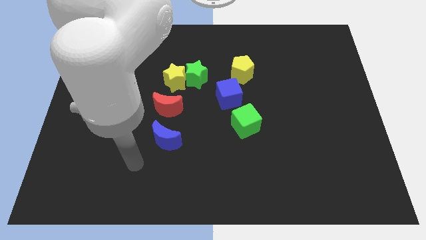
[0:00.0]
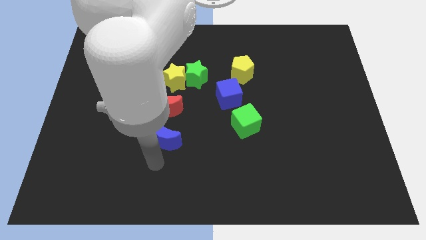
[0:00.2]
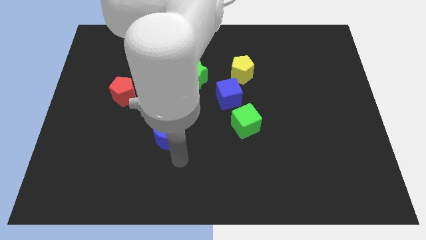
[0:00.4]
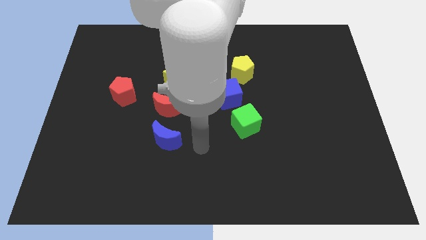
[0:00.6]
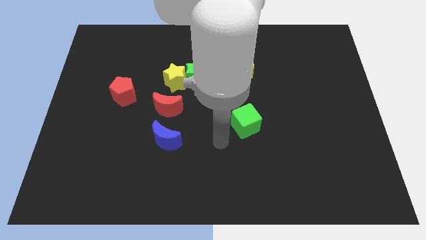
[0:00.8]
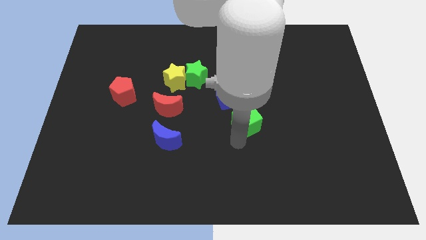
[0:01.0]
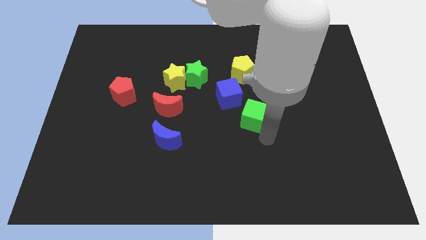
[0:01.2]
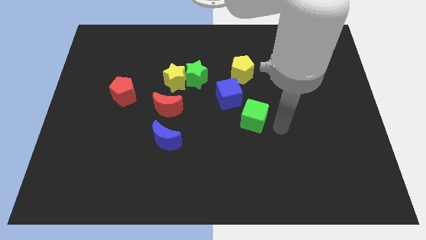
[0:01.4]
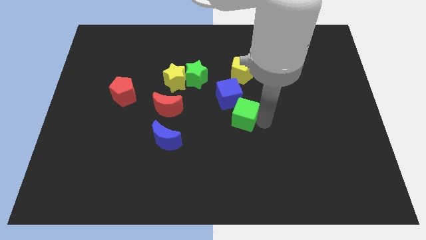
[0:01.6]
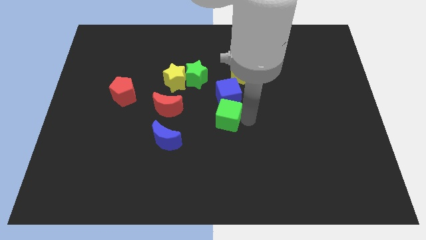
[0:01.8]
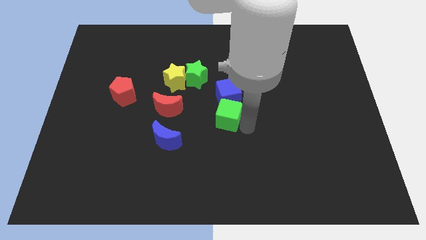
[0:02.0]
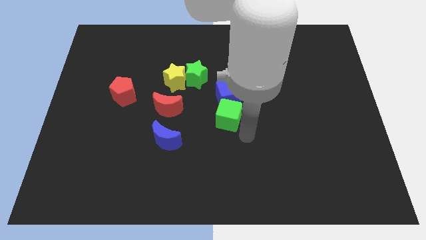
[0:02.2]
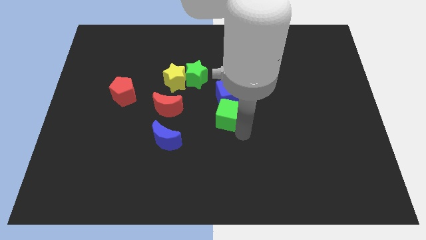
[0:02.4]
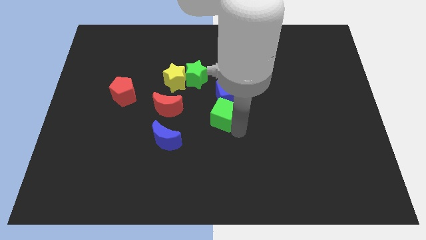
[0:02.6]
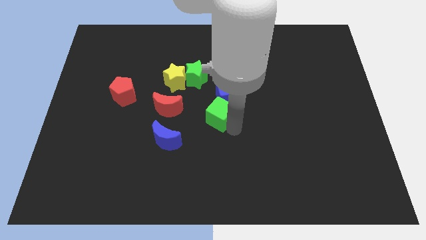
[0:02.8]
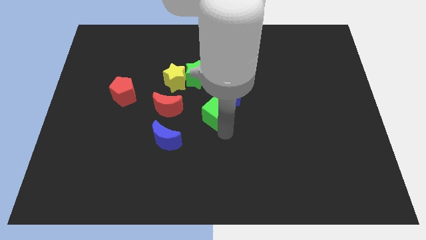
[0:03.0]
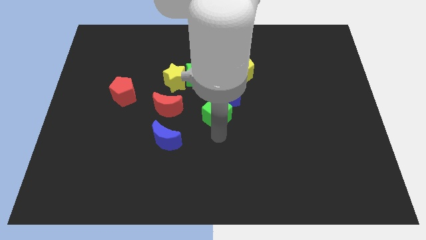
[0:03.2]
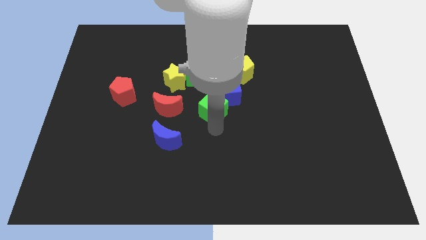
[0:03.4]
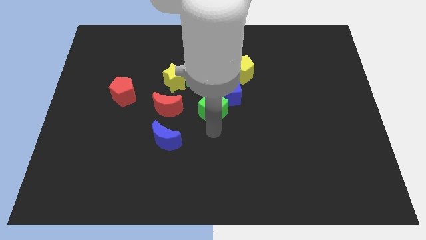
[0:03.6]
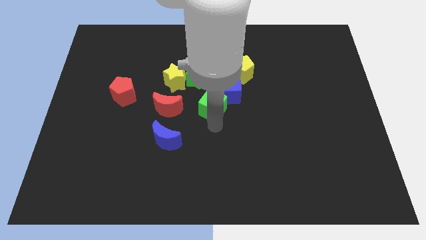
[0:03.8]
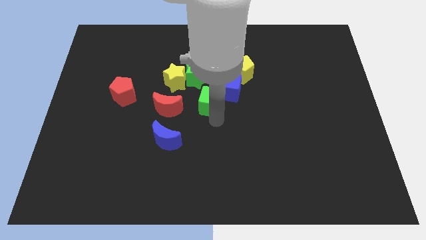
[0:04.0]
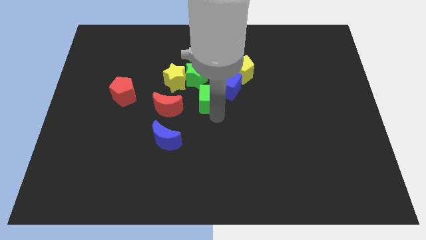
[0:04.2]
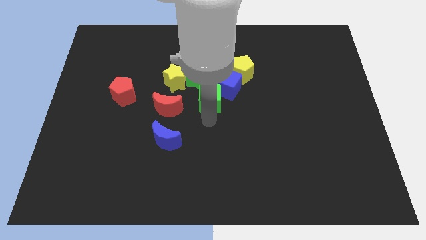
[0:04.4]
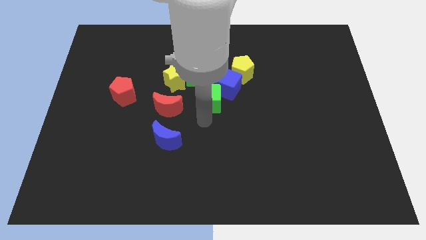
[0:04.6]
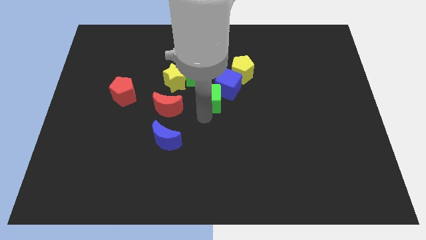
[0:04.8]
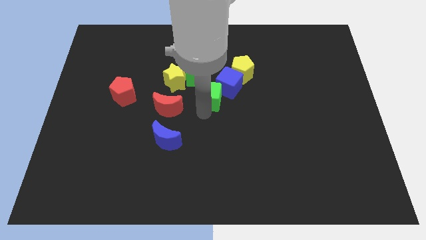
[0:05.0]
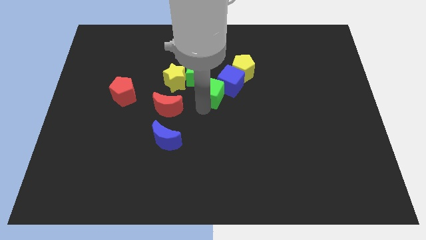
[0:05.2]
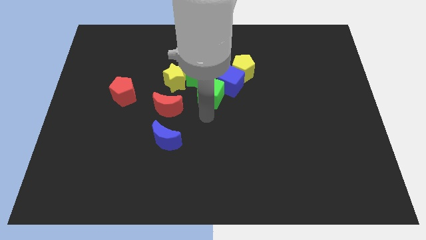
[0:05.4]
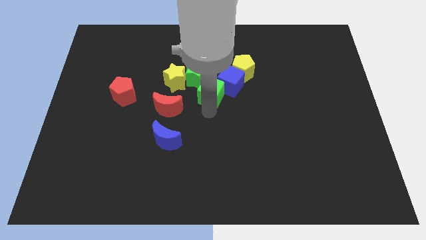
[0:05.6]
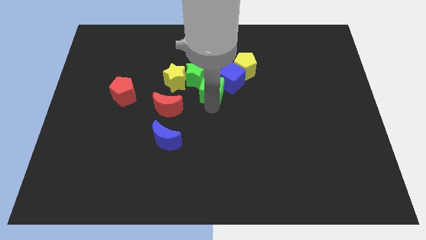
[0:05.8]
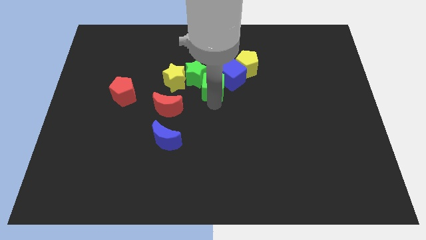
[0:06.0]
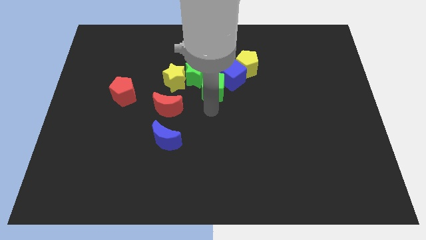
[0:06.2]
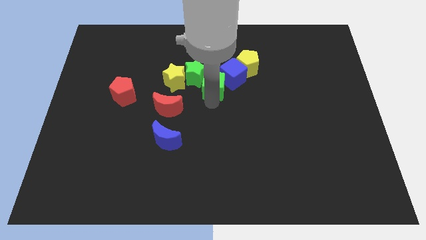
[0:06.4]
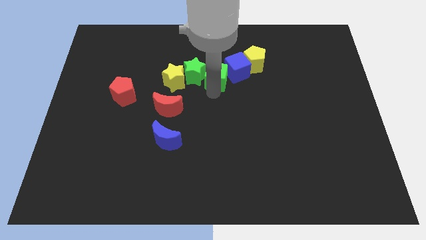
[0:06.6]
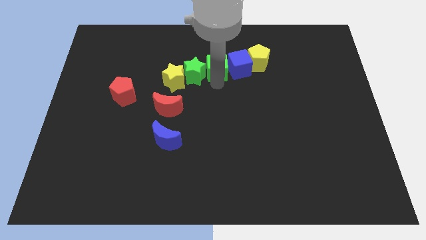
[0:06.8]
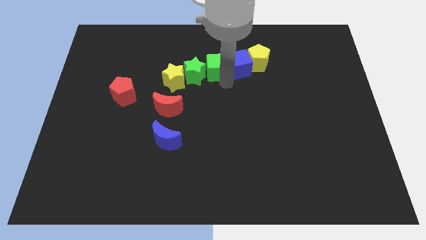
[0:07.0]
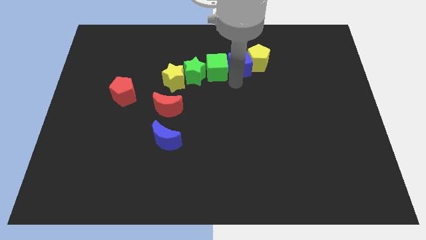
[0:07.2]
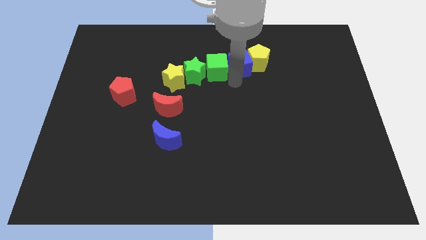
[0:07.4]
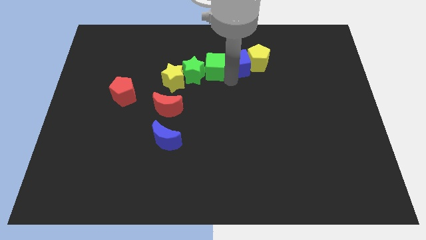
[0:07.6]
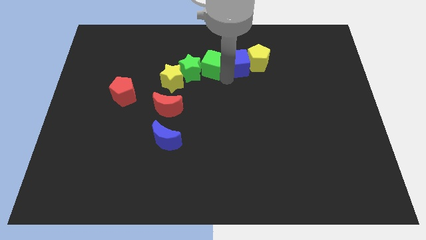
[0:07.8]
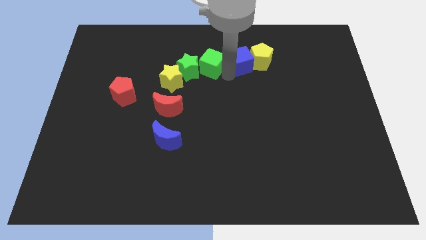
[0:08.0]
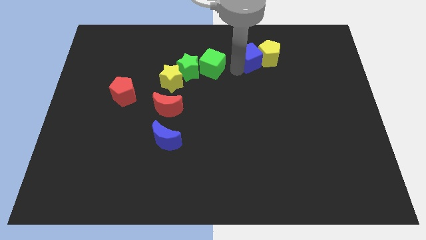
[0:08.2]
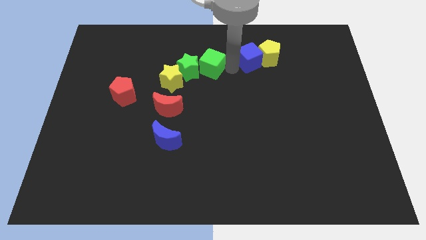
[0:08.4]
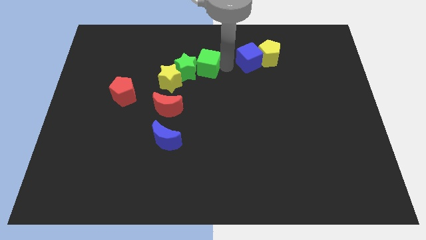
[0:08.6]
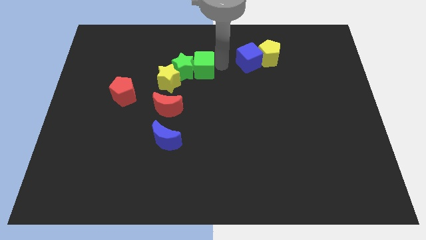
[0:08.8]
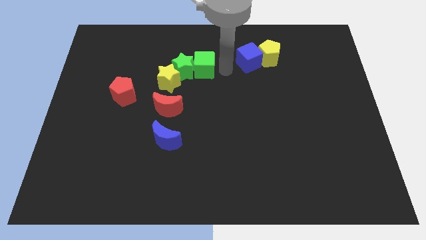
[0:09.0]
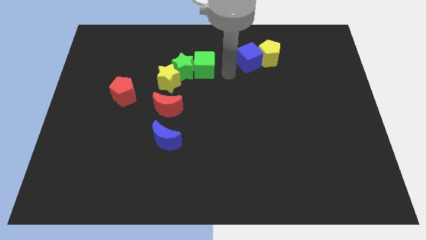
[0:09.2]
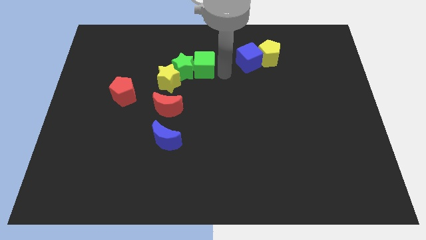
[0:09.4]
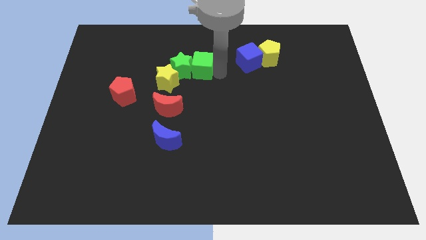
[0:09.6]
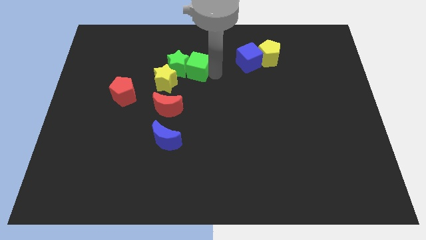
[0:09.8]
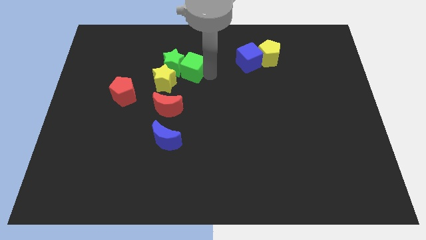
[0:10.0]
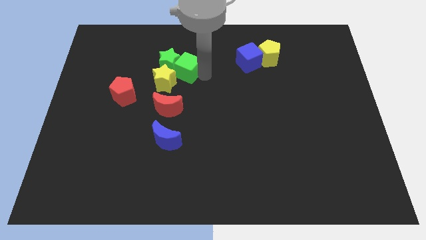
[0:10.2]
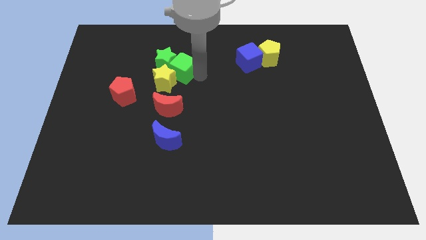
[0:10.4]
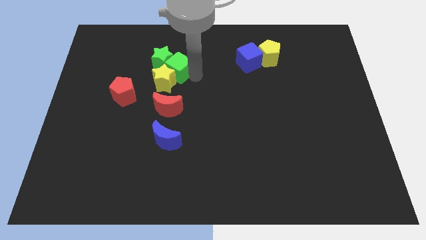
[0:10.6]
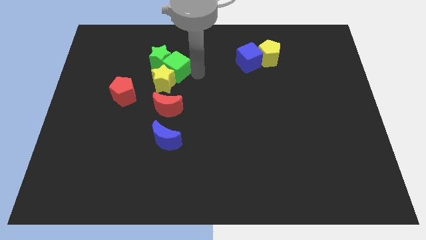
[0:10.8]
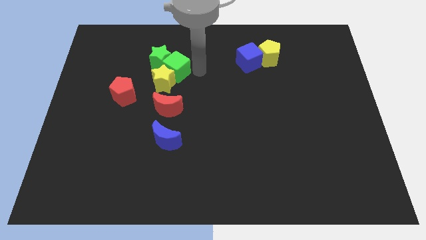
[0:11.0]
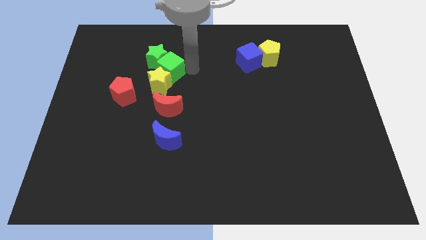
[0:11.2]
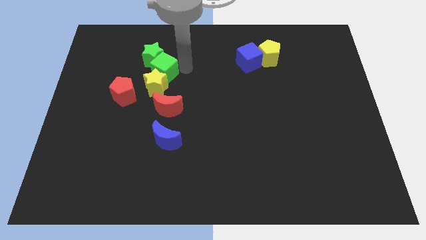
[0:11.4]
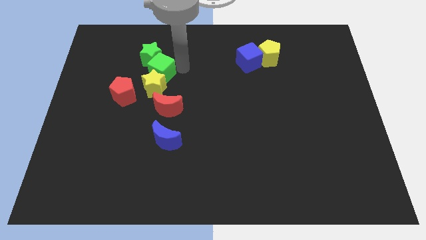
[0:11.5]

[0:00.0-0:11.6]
move the green cube to the top left of the yellow star

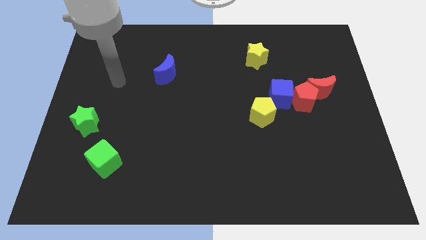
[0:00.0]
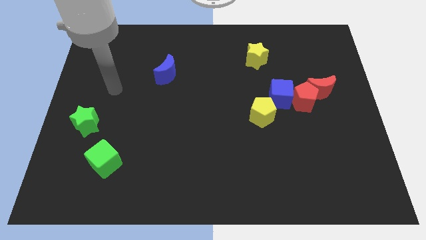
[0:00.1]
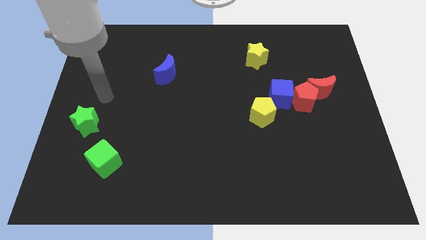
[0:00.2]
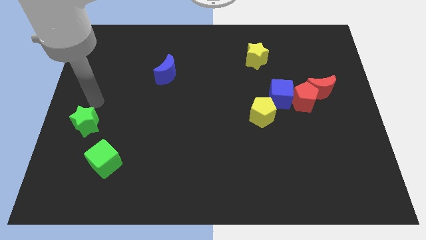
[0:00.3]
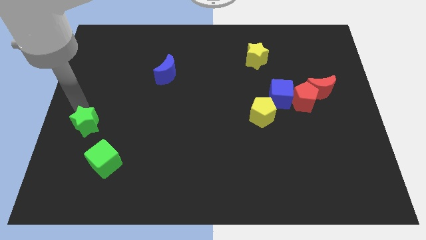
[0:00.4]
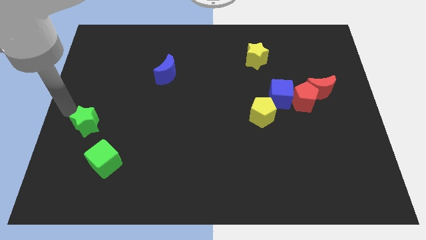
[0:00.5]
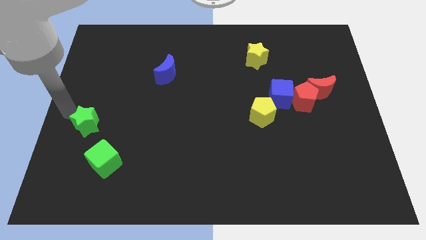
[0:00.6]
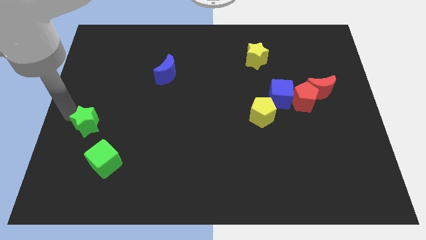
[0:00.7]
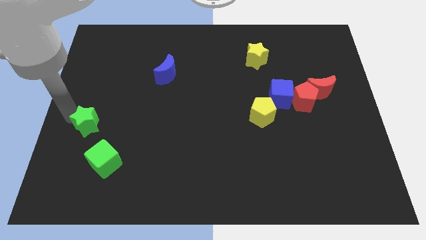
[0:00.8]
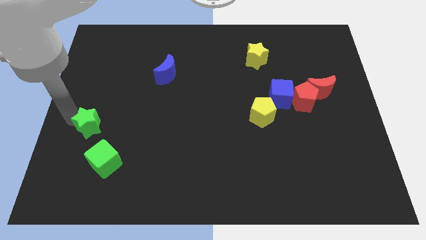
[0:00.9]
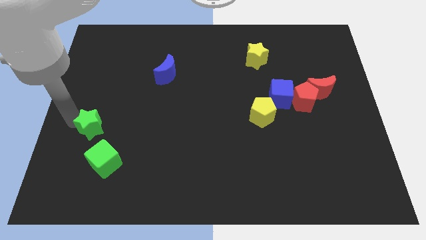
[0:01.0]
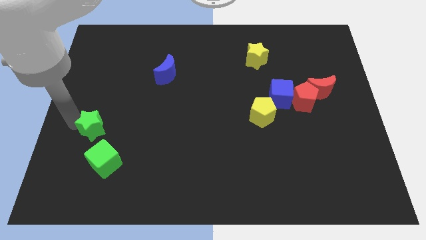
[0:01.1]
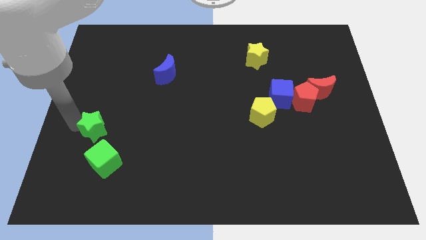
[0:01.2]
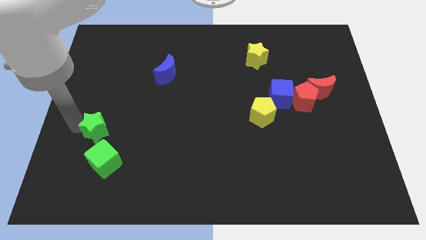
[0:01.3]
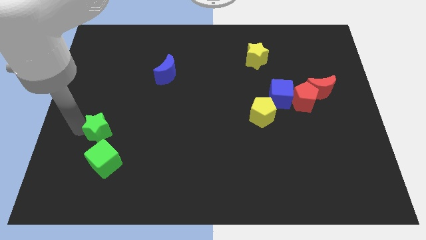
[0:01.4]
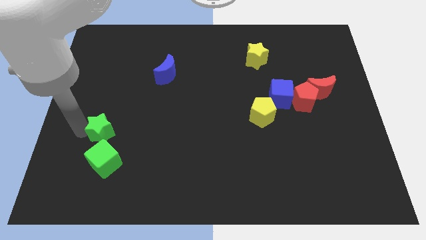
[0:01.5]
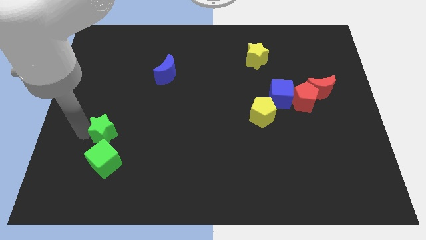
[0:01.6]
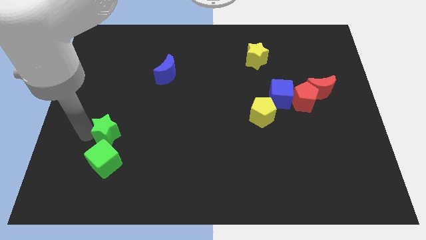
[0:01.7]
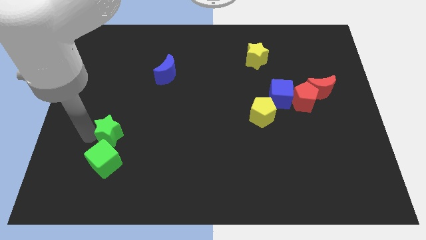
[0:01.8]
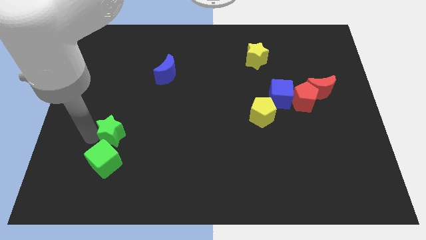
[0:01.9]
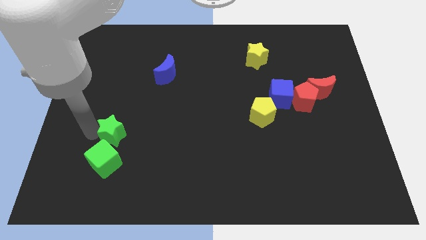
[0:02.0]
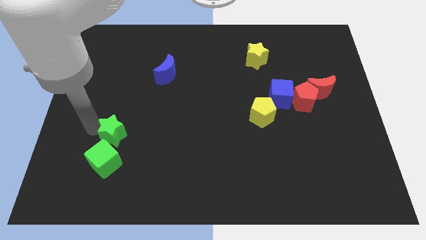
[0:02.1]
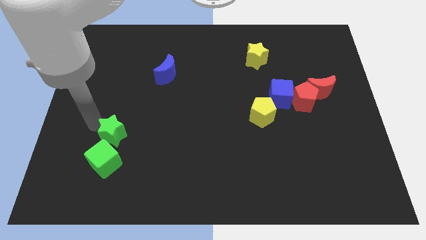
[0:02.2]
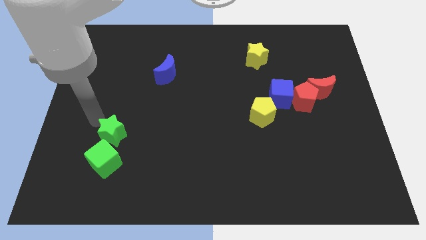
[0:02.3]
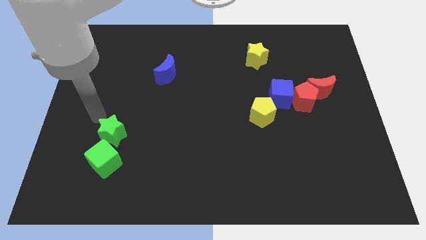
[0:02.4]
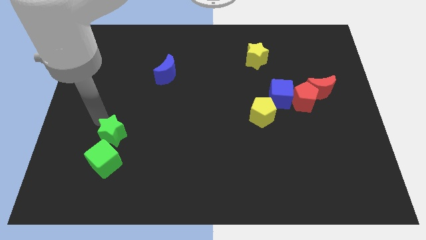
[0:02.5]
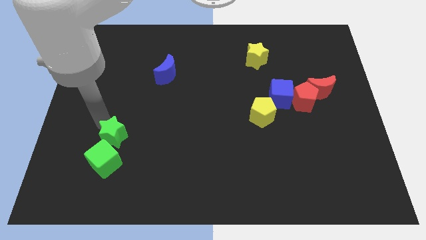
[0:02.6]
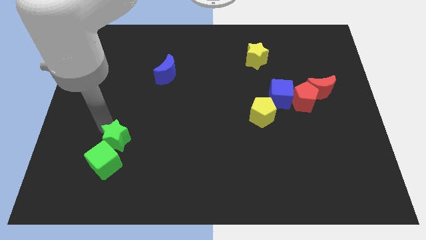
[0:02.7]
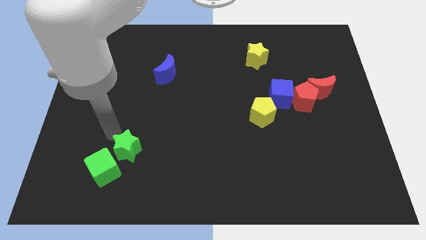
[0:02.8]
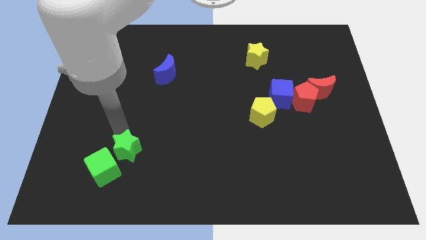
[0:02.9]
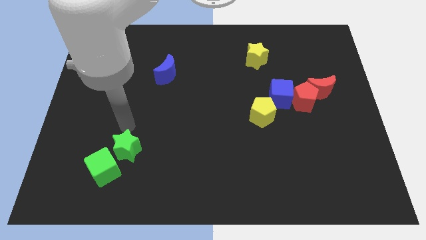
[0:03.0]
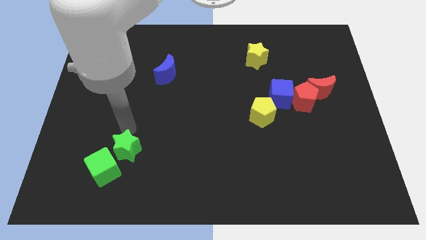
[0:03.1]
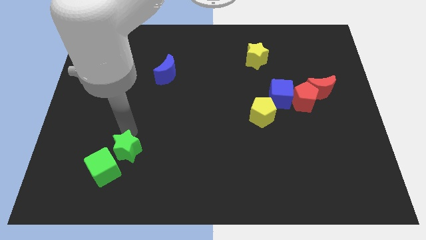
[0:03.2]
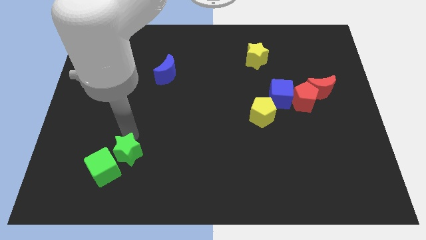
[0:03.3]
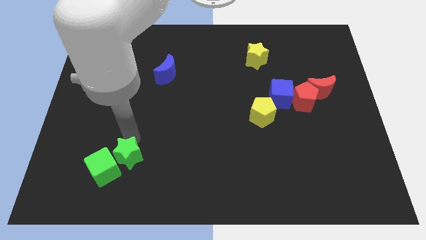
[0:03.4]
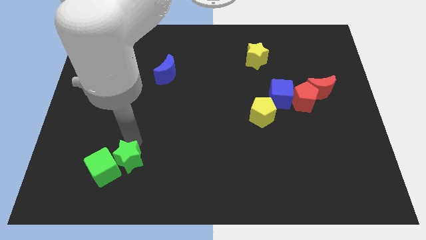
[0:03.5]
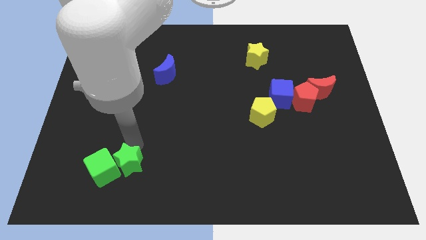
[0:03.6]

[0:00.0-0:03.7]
slide the green star diagonally down and to the right of the green cube
